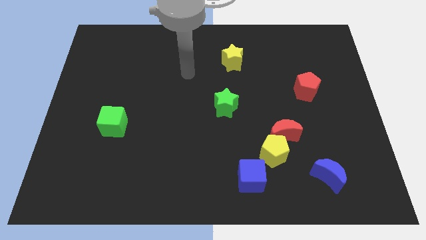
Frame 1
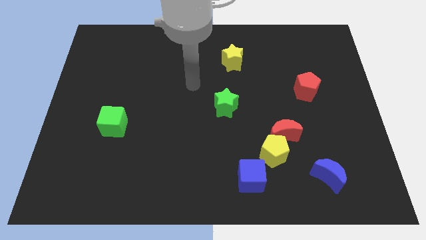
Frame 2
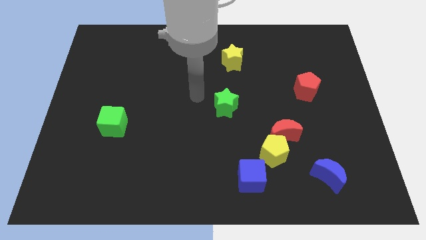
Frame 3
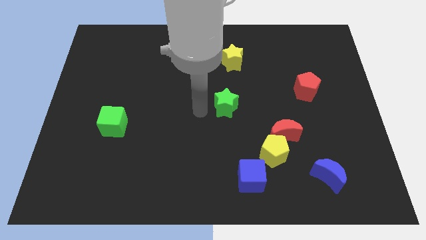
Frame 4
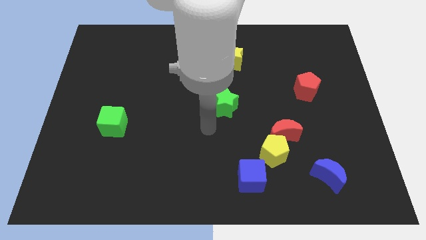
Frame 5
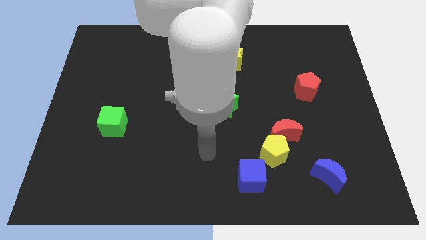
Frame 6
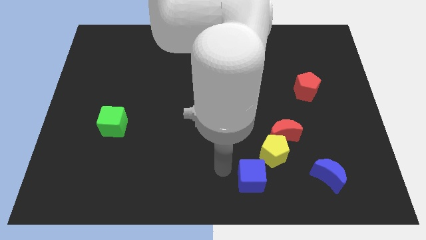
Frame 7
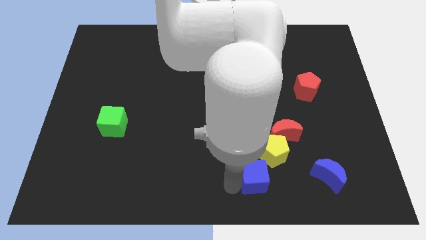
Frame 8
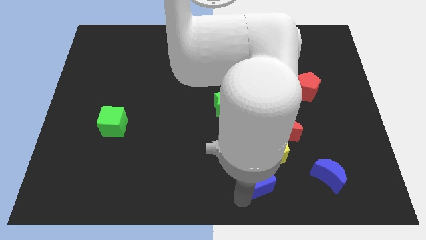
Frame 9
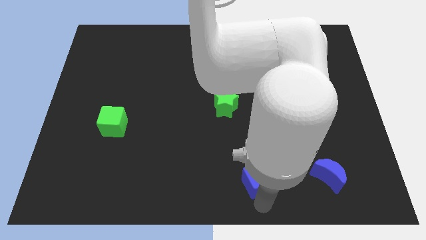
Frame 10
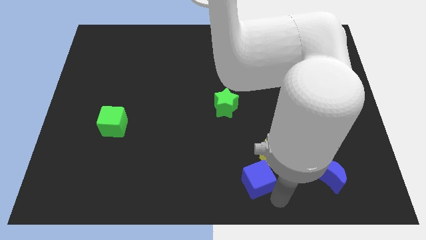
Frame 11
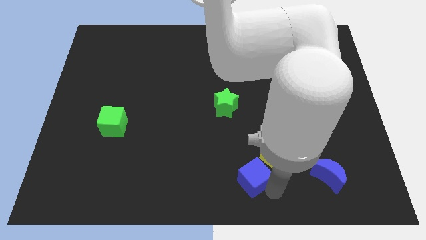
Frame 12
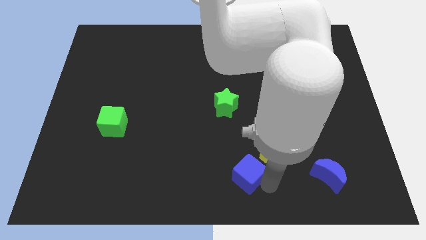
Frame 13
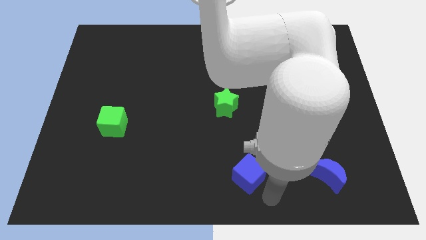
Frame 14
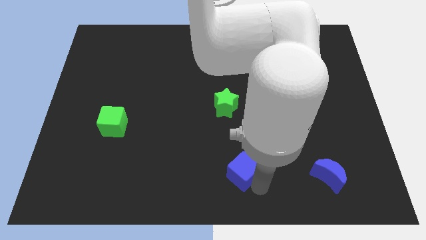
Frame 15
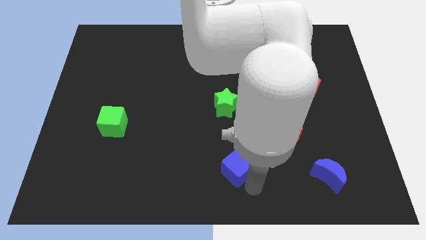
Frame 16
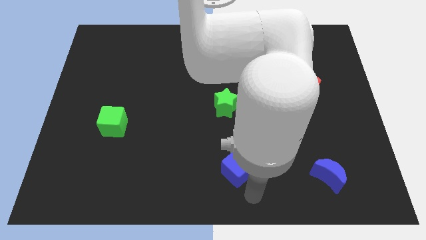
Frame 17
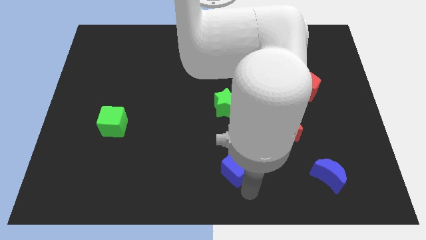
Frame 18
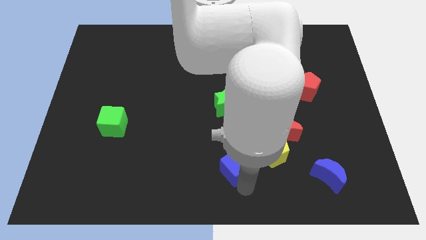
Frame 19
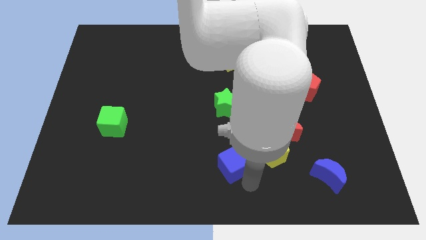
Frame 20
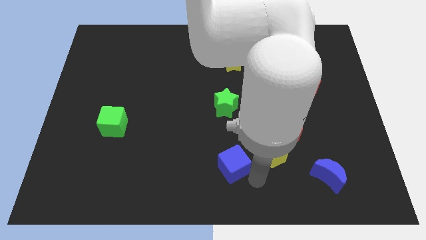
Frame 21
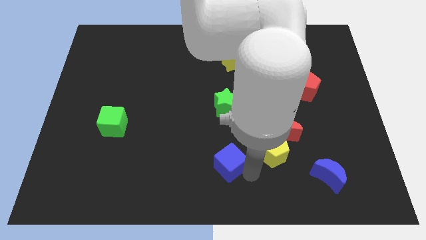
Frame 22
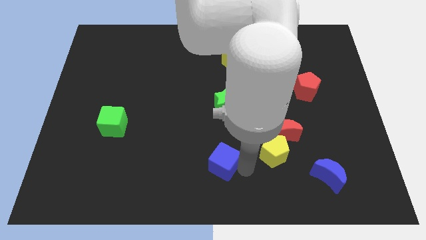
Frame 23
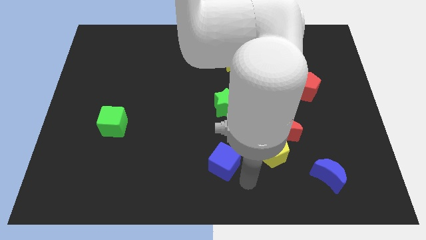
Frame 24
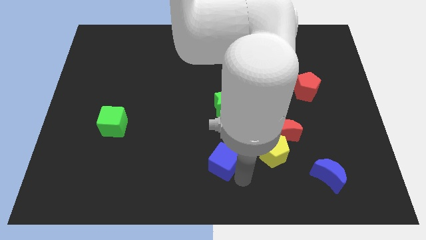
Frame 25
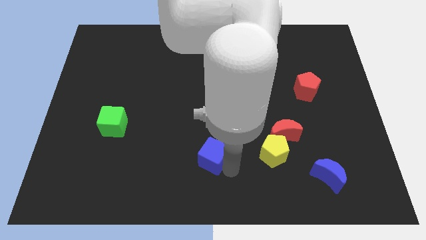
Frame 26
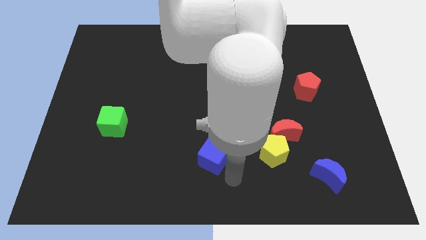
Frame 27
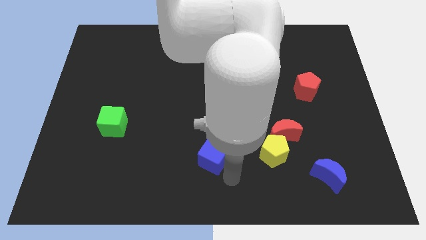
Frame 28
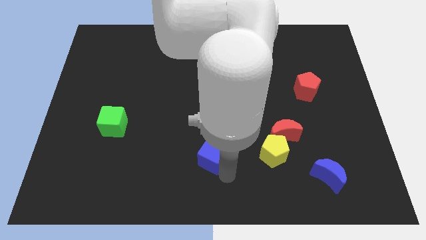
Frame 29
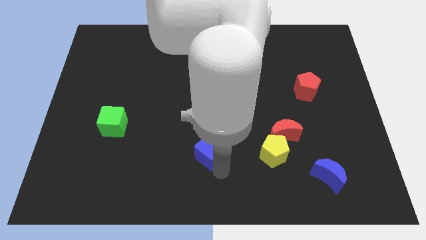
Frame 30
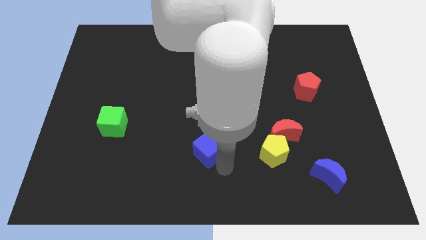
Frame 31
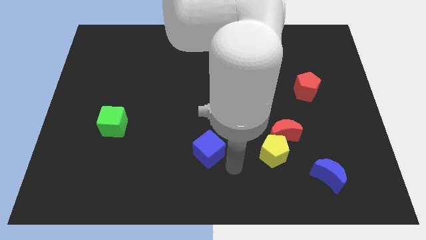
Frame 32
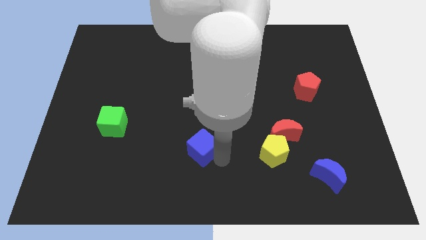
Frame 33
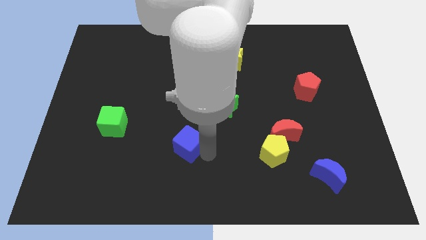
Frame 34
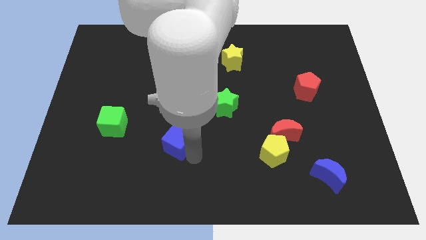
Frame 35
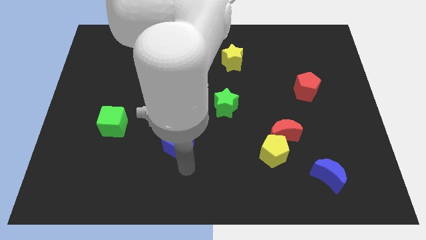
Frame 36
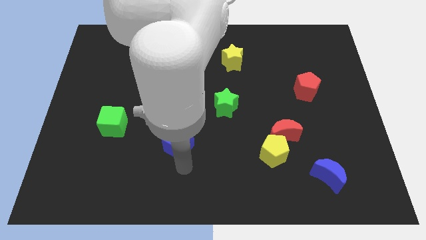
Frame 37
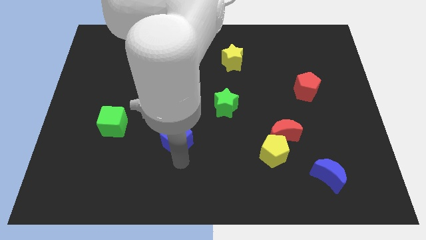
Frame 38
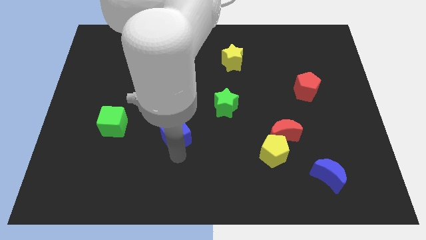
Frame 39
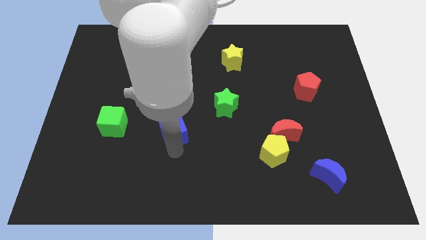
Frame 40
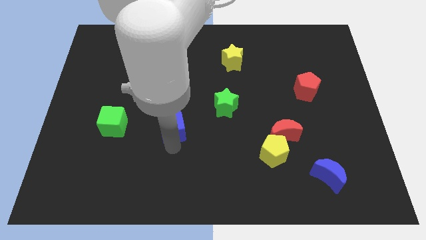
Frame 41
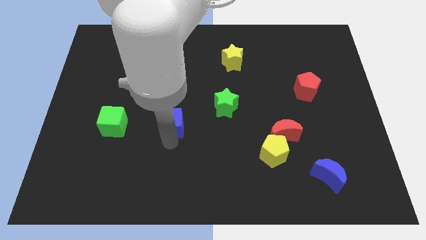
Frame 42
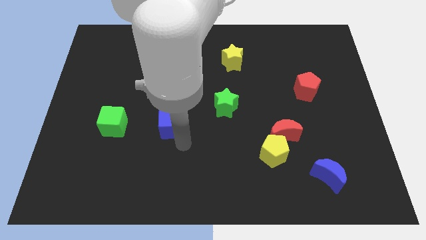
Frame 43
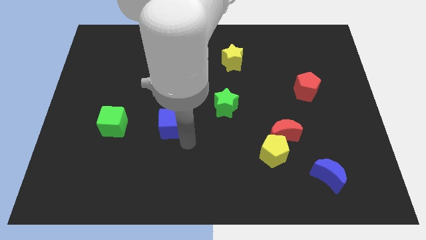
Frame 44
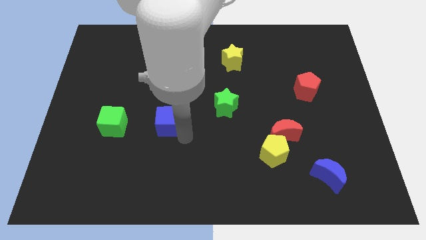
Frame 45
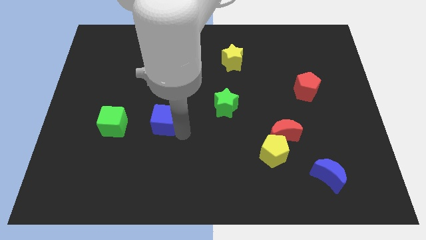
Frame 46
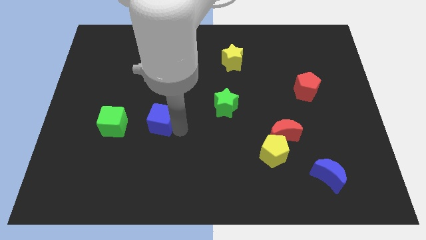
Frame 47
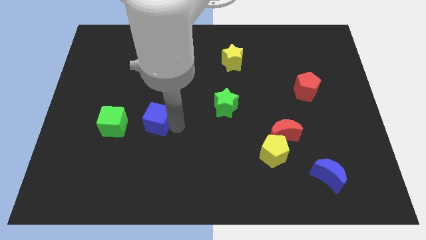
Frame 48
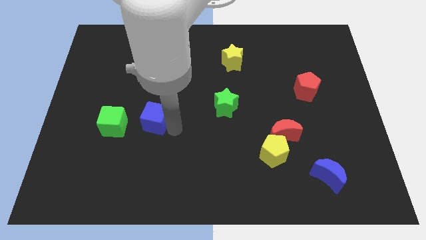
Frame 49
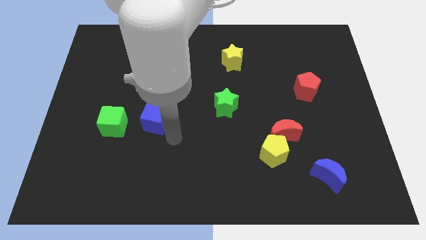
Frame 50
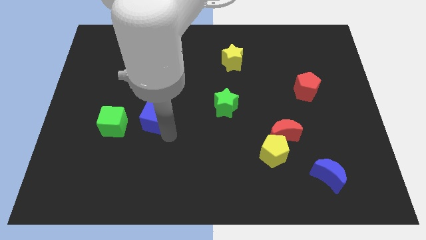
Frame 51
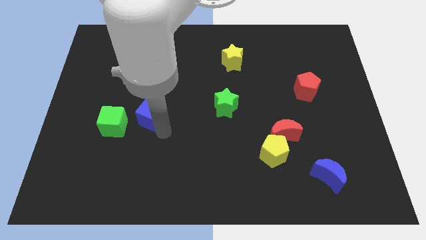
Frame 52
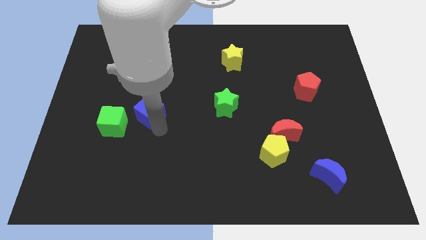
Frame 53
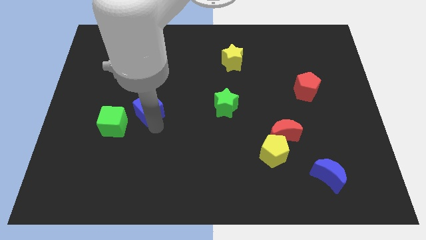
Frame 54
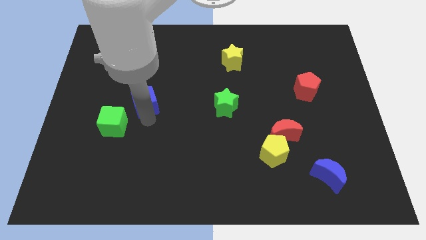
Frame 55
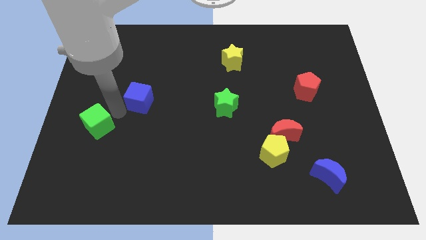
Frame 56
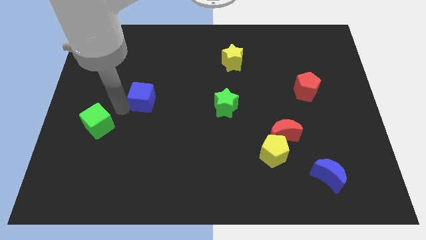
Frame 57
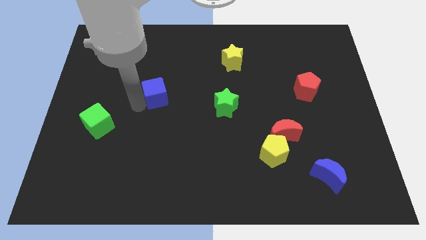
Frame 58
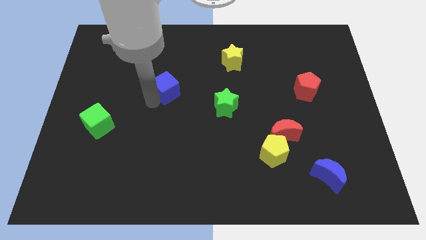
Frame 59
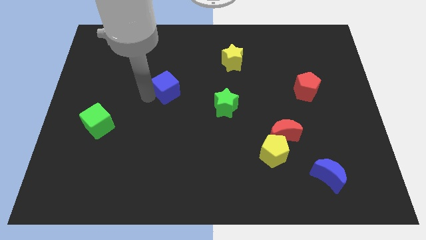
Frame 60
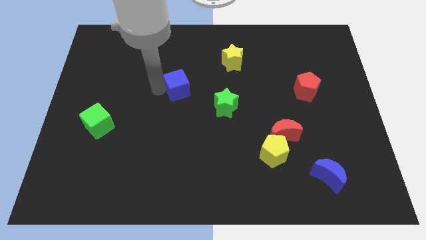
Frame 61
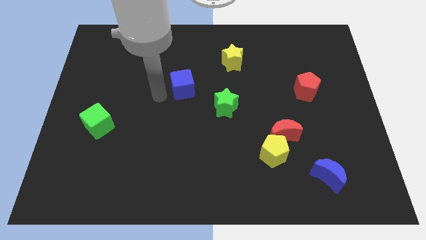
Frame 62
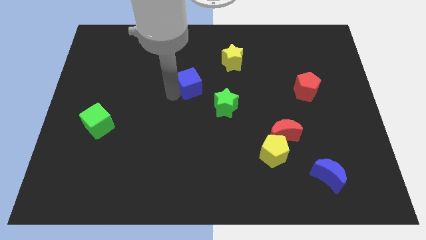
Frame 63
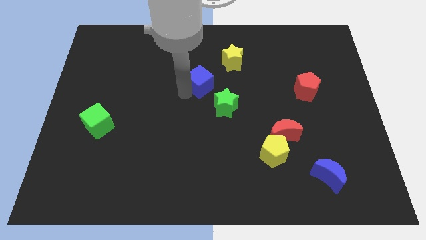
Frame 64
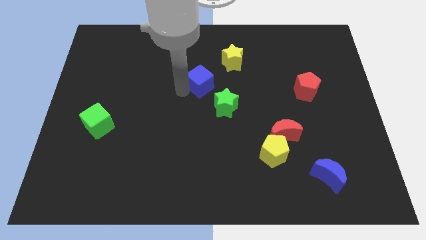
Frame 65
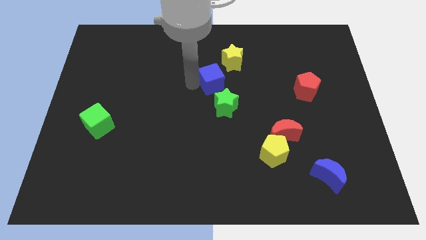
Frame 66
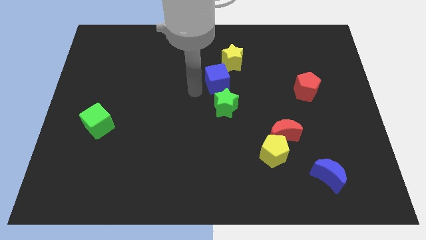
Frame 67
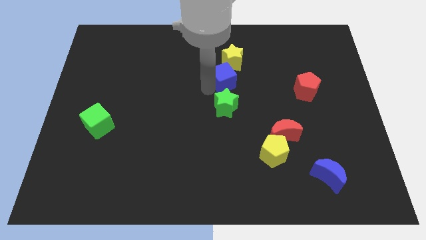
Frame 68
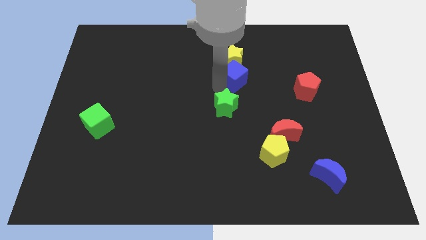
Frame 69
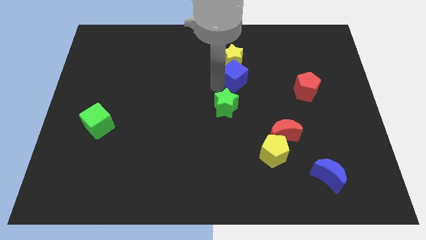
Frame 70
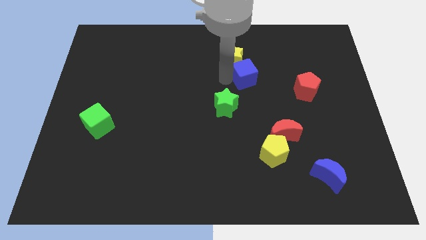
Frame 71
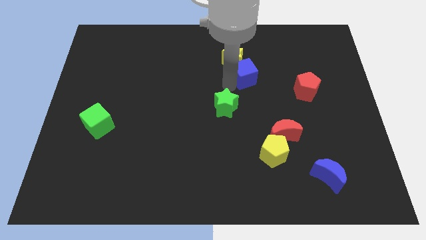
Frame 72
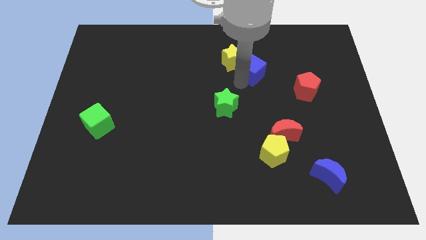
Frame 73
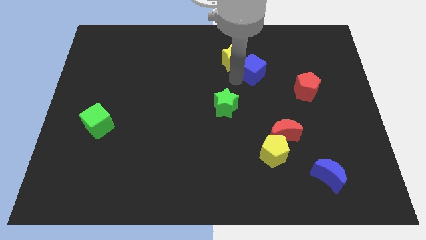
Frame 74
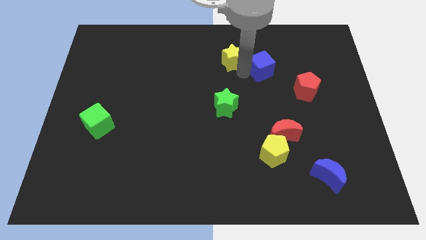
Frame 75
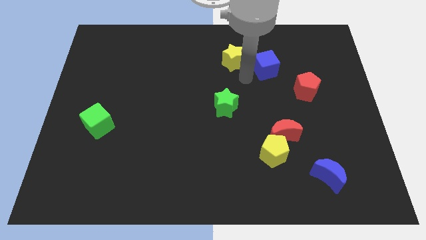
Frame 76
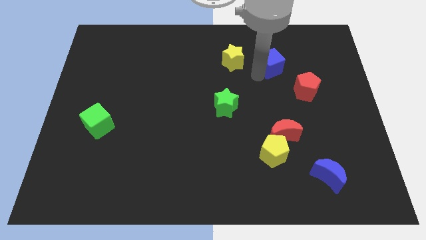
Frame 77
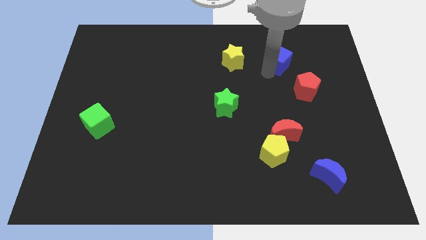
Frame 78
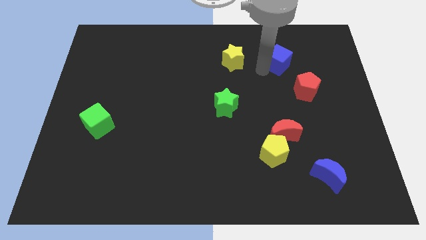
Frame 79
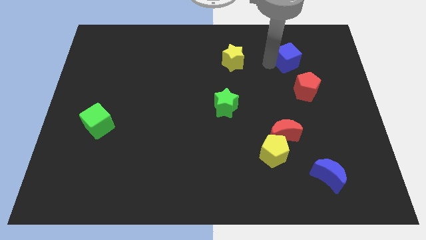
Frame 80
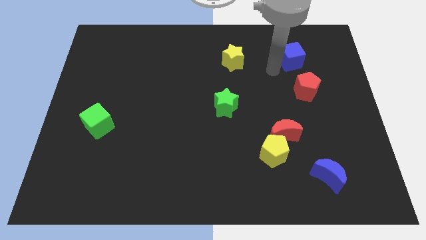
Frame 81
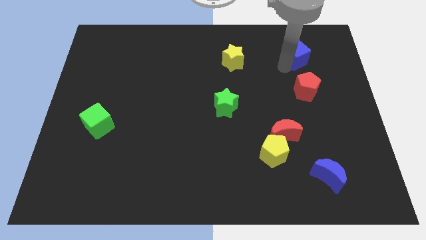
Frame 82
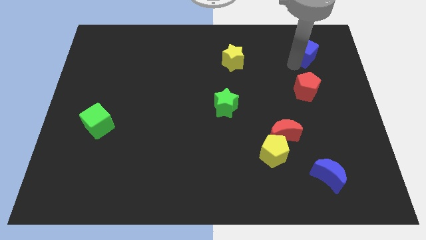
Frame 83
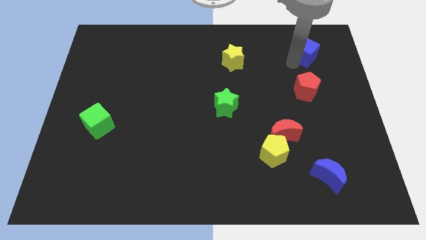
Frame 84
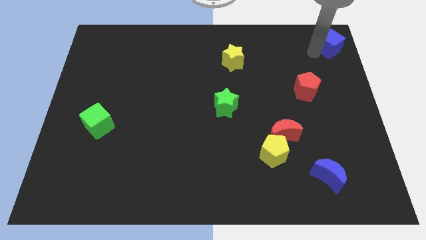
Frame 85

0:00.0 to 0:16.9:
put the blue cube to the upper right corner
